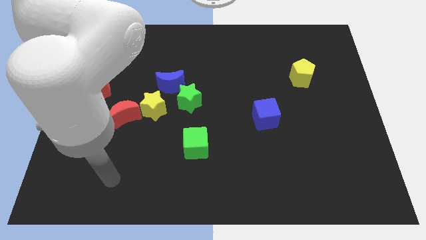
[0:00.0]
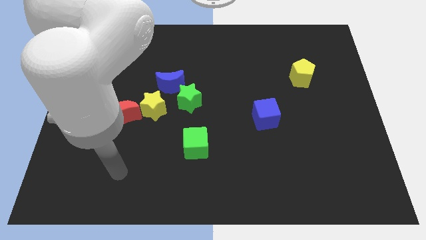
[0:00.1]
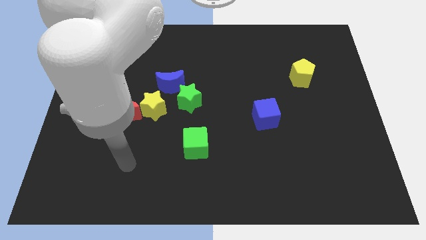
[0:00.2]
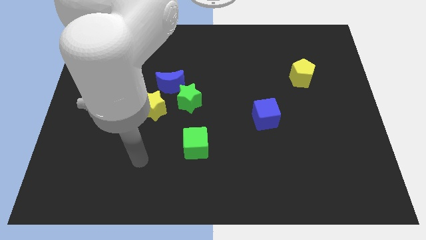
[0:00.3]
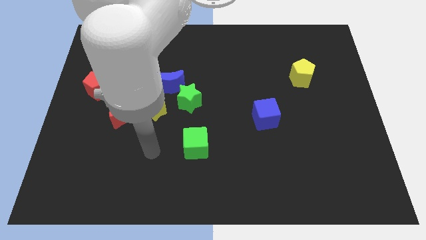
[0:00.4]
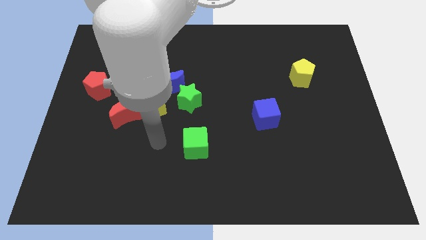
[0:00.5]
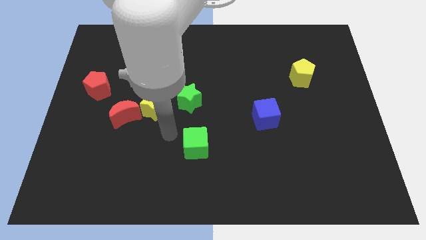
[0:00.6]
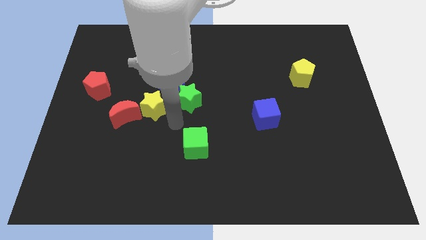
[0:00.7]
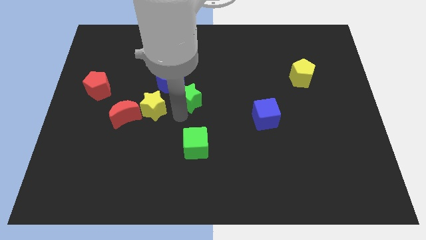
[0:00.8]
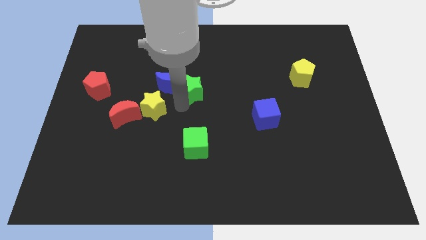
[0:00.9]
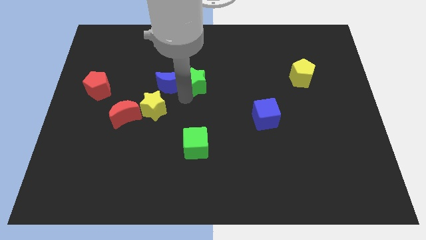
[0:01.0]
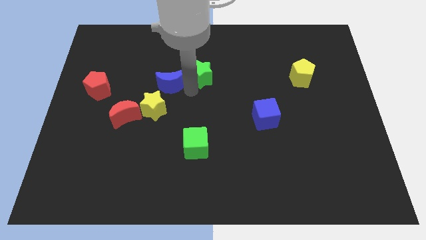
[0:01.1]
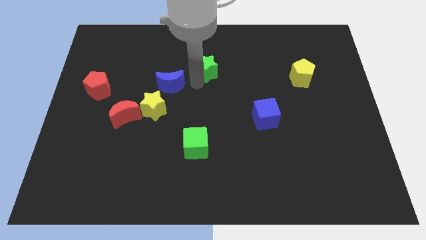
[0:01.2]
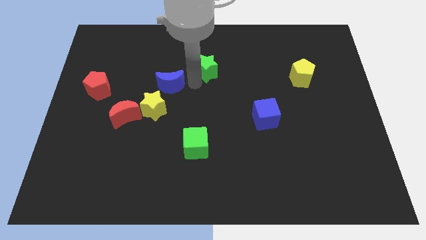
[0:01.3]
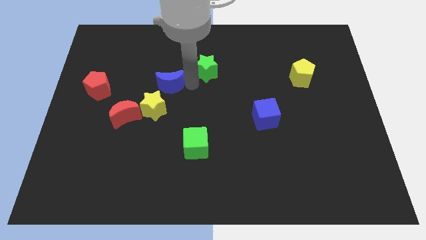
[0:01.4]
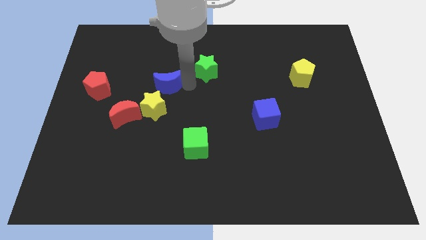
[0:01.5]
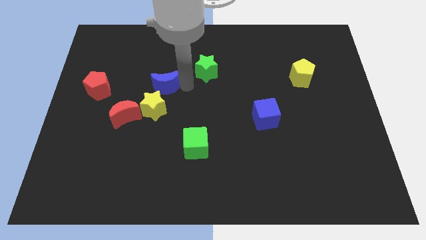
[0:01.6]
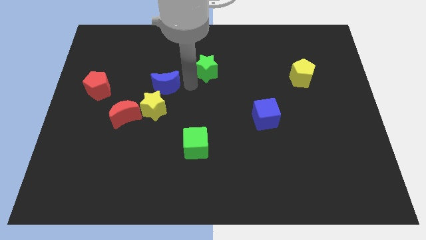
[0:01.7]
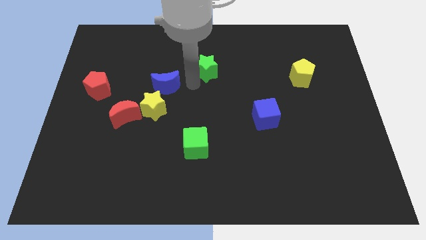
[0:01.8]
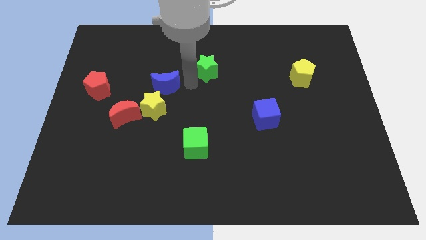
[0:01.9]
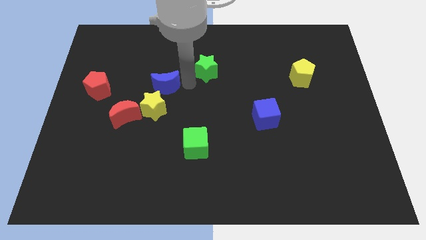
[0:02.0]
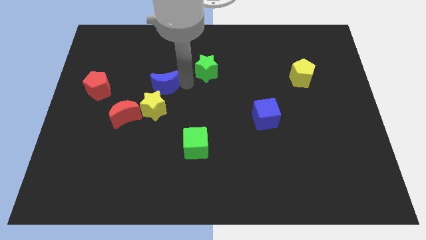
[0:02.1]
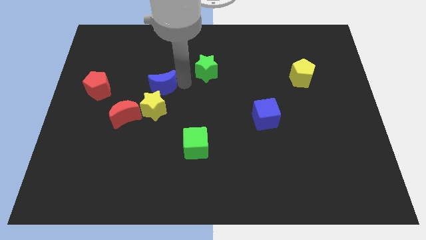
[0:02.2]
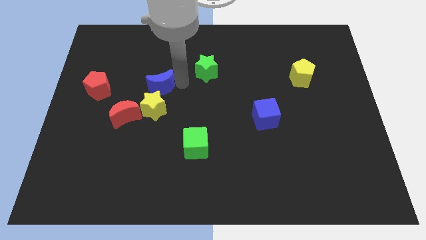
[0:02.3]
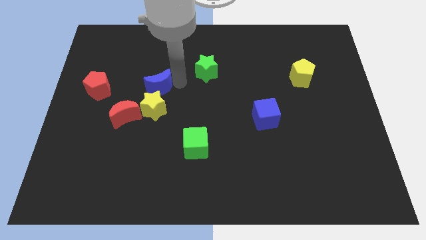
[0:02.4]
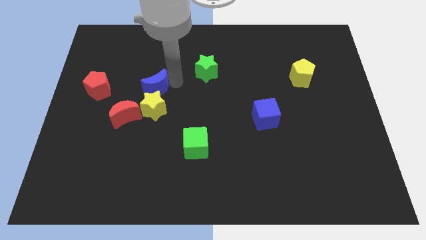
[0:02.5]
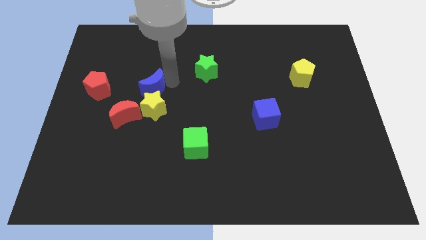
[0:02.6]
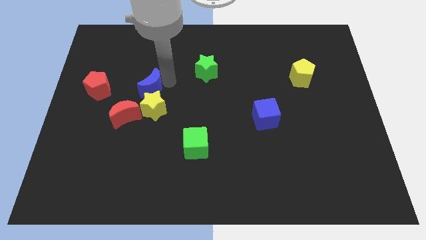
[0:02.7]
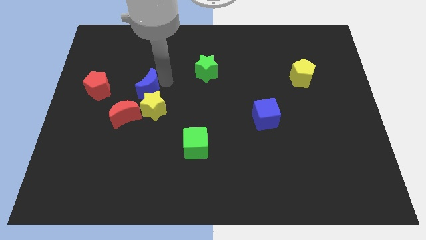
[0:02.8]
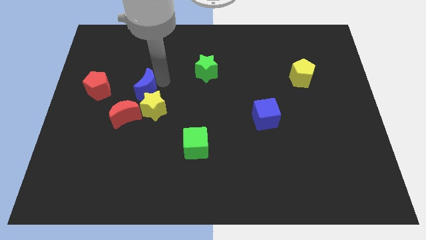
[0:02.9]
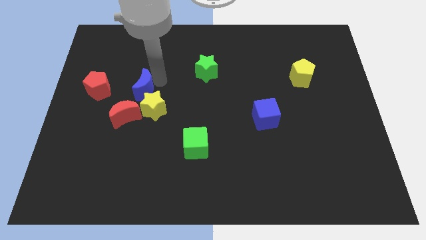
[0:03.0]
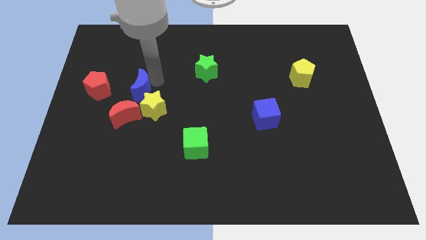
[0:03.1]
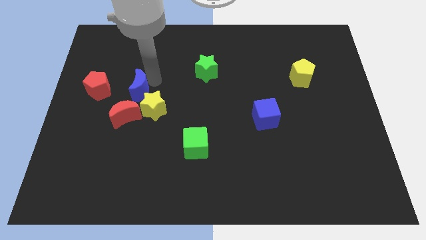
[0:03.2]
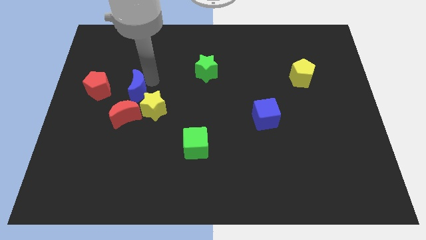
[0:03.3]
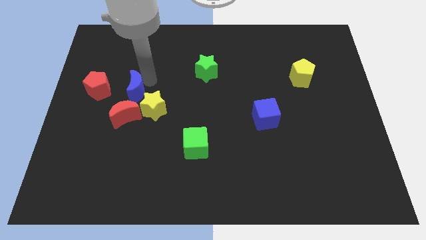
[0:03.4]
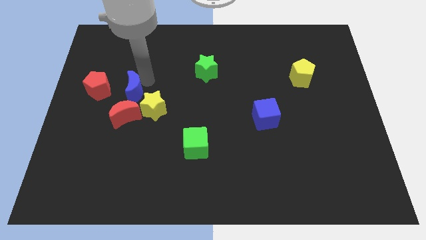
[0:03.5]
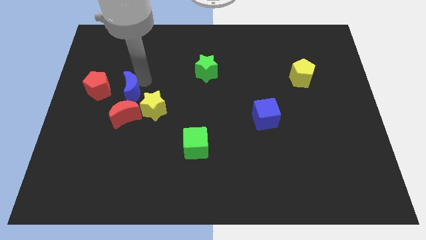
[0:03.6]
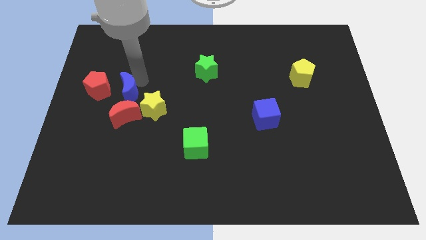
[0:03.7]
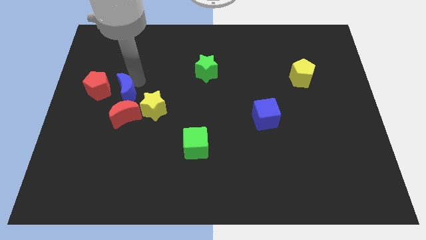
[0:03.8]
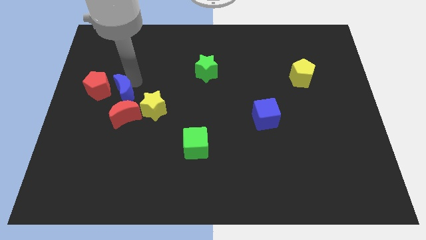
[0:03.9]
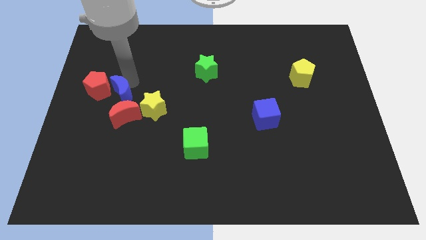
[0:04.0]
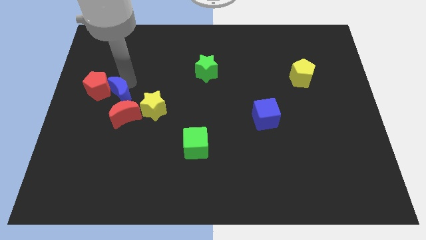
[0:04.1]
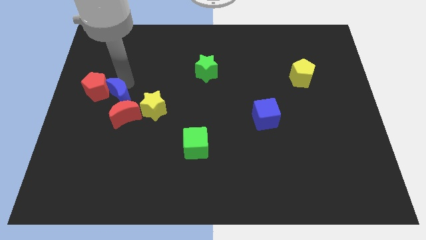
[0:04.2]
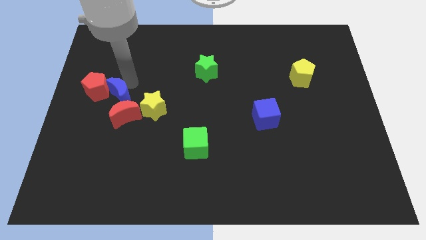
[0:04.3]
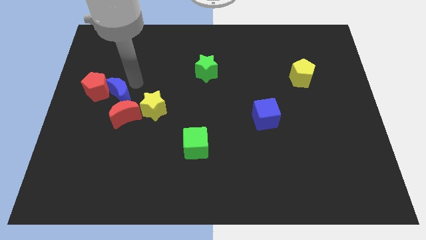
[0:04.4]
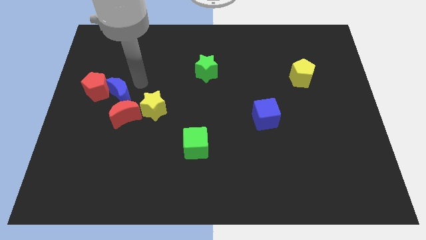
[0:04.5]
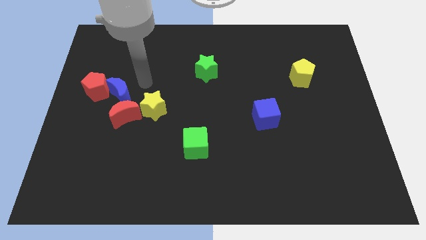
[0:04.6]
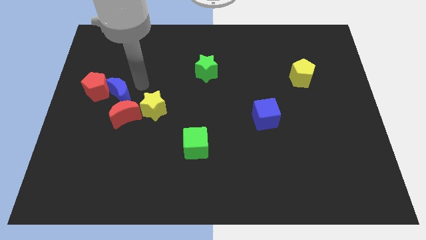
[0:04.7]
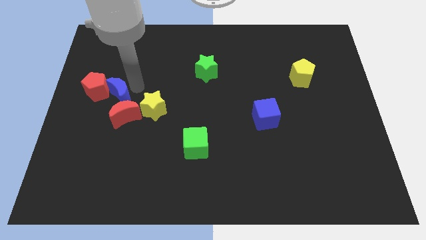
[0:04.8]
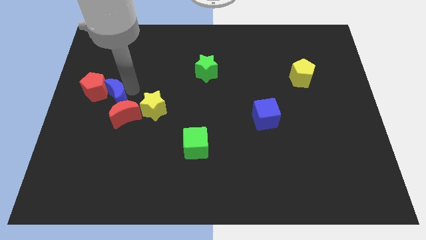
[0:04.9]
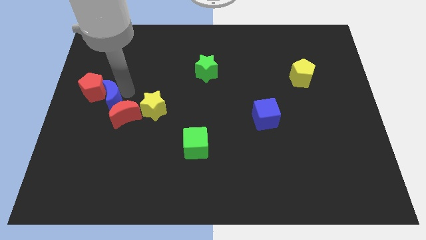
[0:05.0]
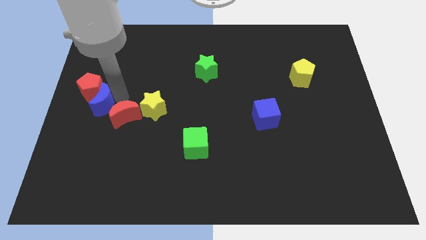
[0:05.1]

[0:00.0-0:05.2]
slide the blue moon to the center left

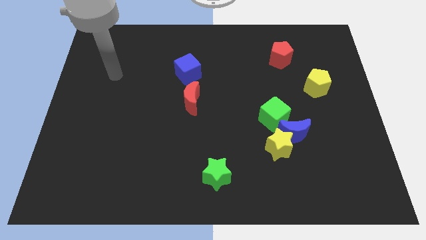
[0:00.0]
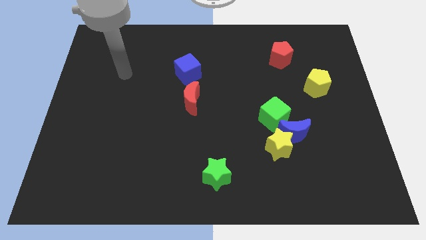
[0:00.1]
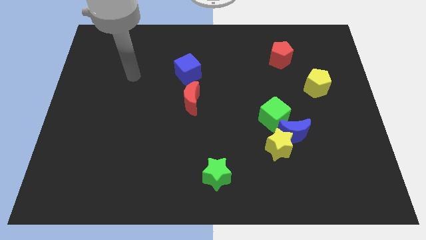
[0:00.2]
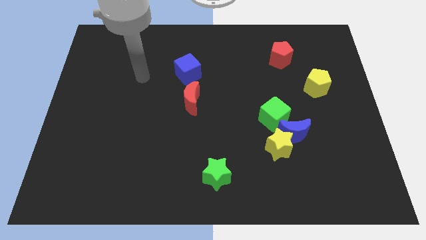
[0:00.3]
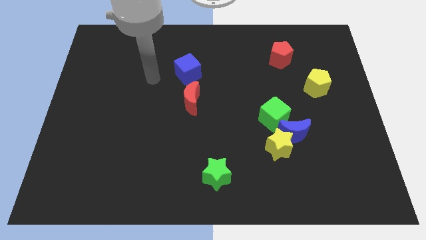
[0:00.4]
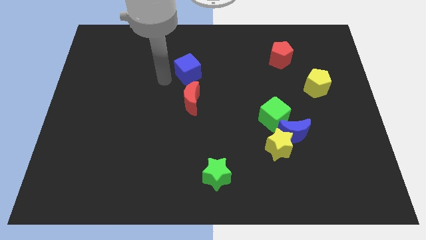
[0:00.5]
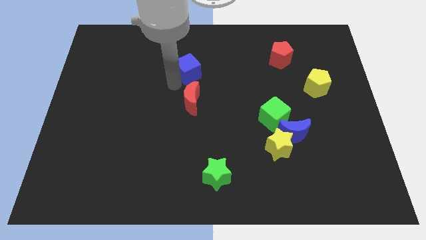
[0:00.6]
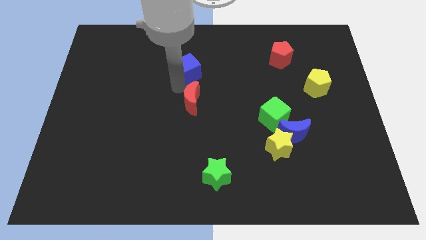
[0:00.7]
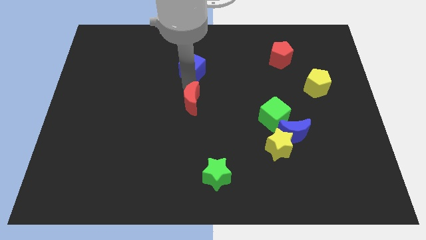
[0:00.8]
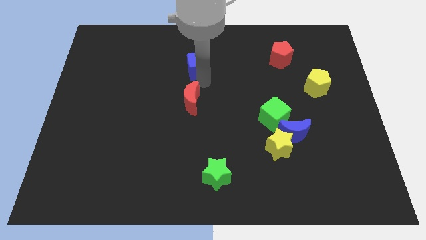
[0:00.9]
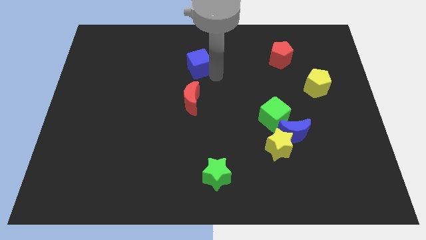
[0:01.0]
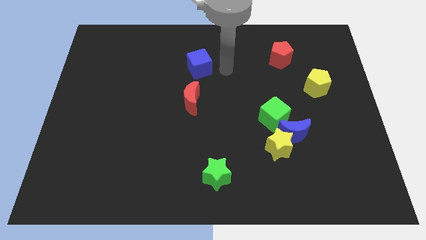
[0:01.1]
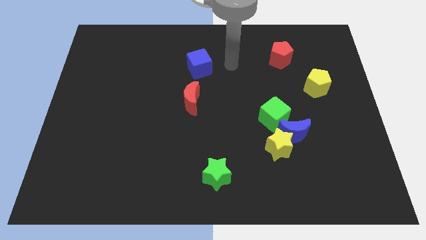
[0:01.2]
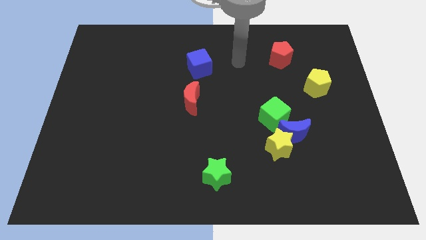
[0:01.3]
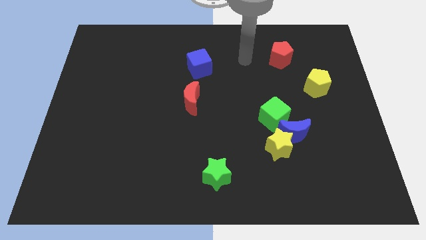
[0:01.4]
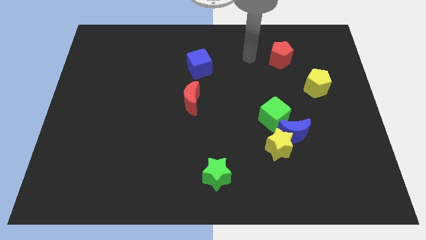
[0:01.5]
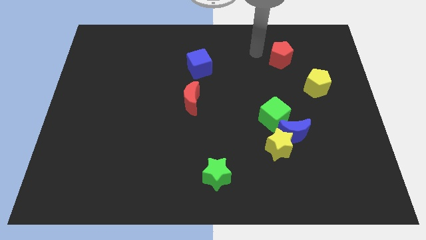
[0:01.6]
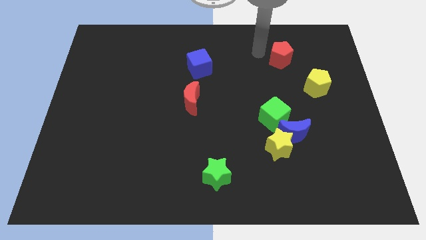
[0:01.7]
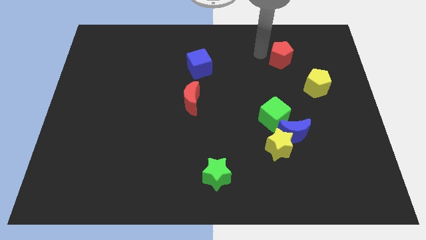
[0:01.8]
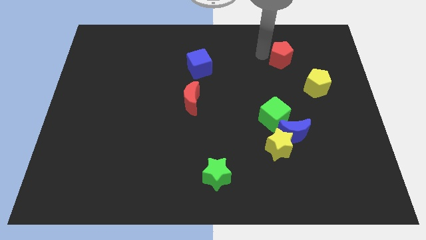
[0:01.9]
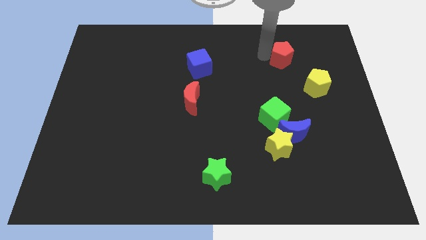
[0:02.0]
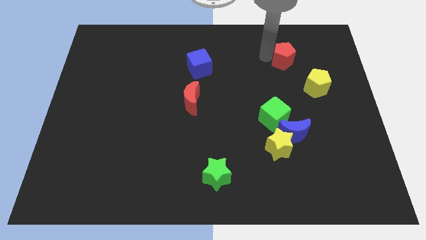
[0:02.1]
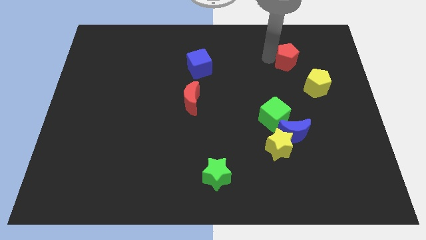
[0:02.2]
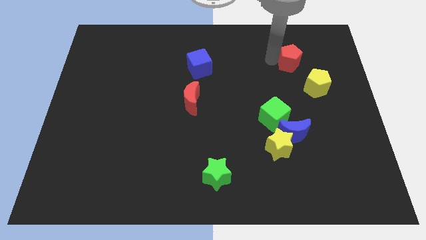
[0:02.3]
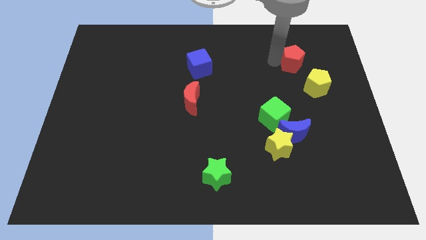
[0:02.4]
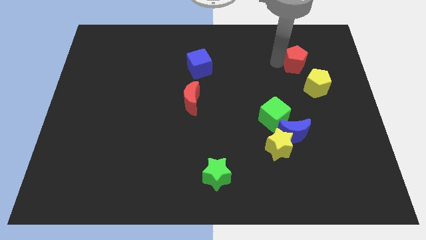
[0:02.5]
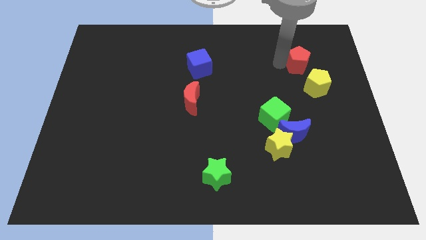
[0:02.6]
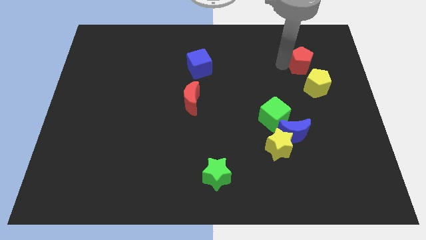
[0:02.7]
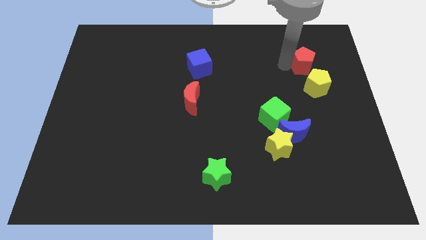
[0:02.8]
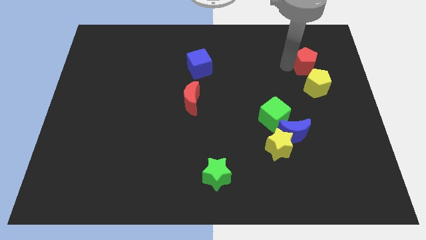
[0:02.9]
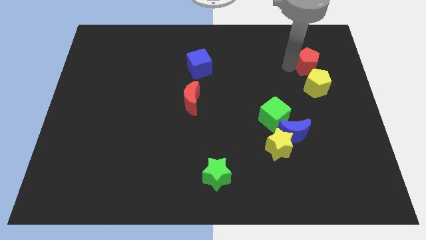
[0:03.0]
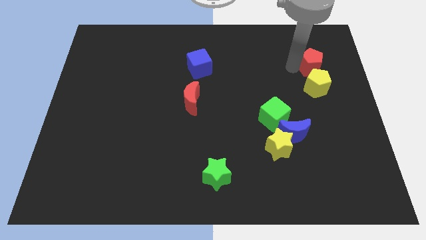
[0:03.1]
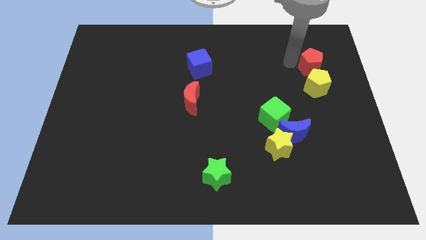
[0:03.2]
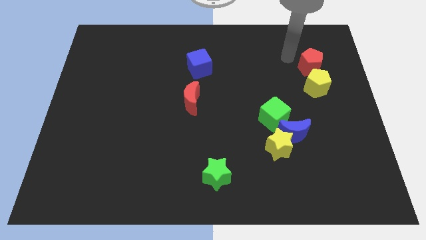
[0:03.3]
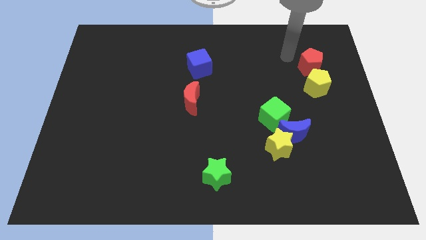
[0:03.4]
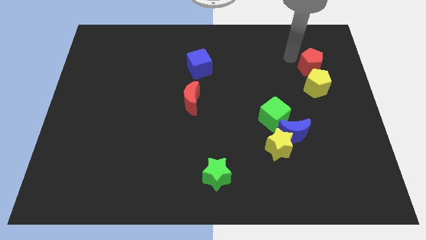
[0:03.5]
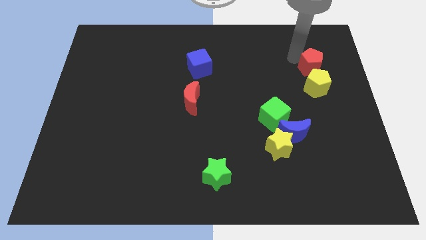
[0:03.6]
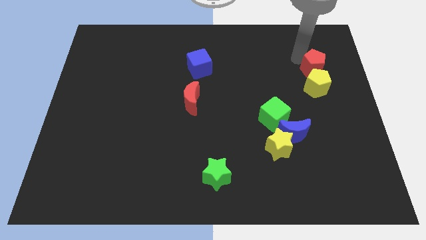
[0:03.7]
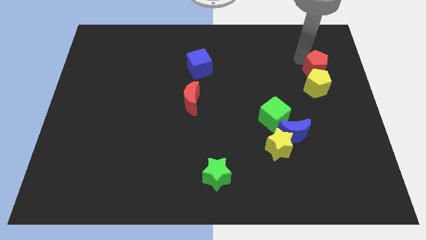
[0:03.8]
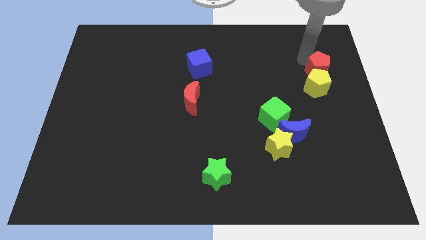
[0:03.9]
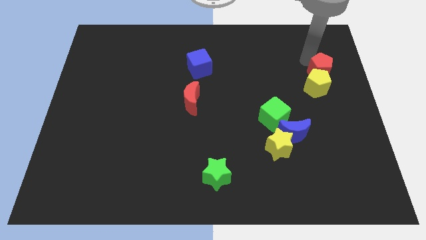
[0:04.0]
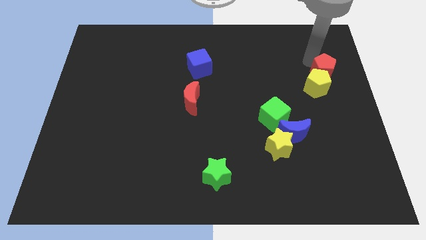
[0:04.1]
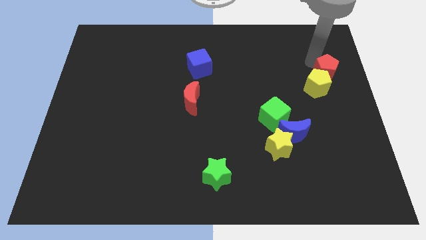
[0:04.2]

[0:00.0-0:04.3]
push the red pentagon to the right side of the board
